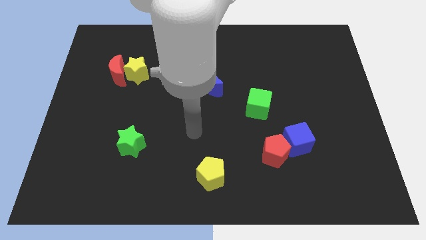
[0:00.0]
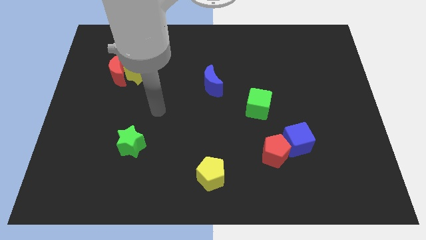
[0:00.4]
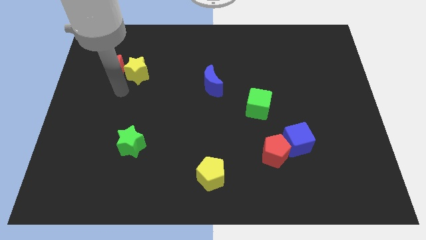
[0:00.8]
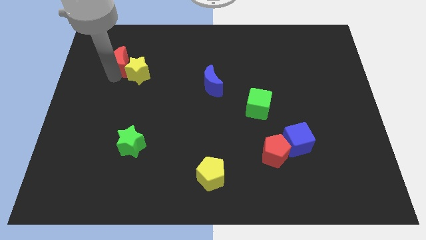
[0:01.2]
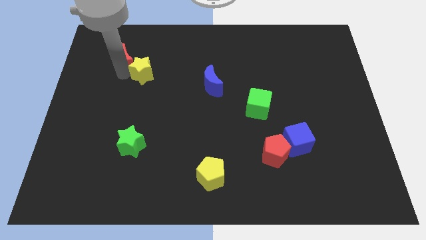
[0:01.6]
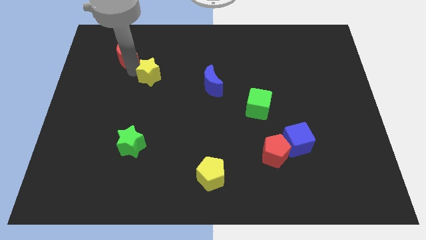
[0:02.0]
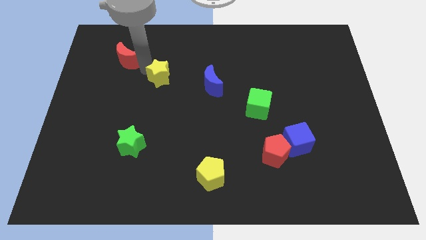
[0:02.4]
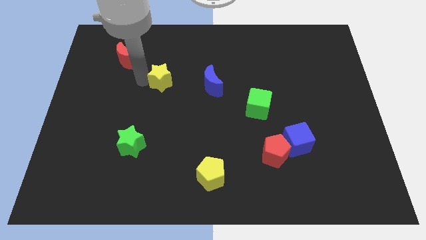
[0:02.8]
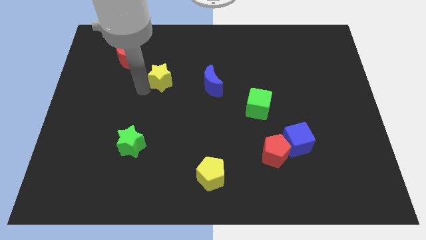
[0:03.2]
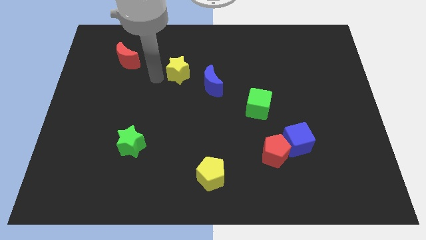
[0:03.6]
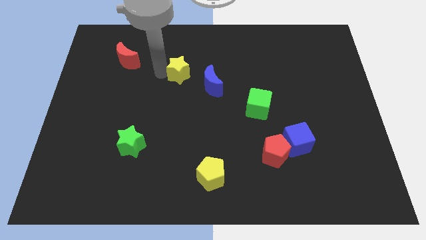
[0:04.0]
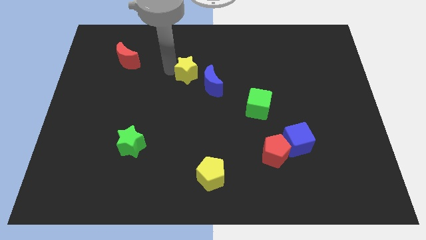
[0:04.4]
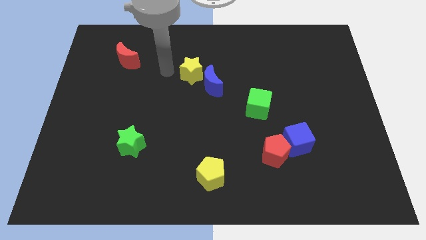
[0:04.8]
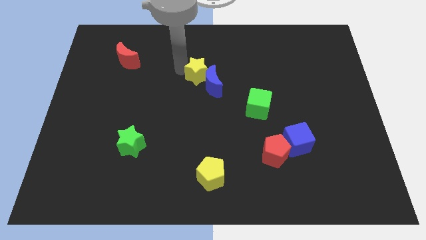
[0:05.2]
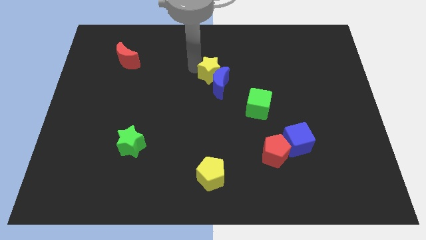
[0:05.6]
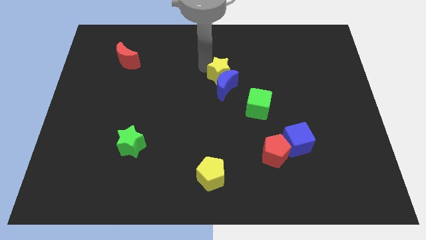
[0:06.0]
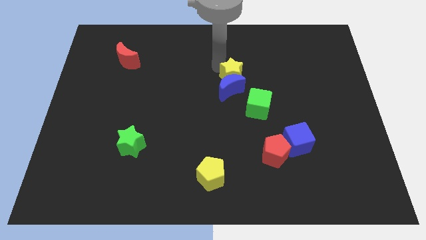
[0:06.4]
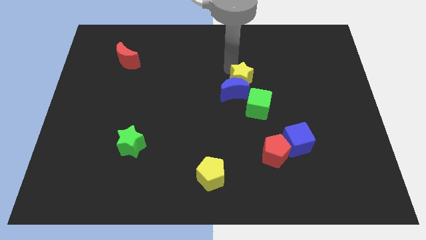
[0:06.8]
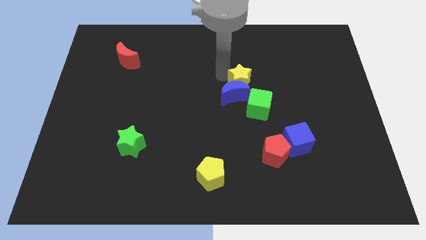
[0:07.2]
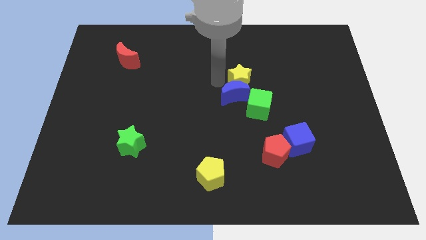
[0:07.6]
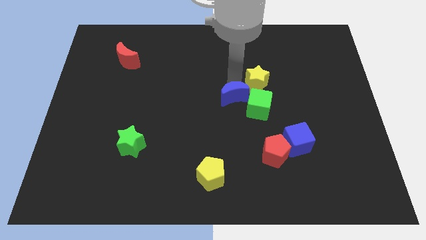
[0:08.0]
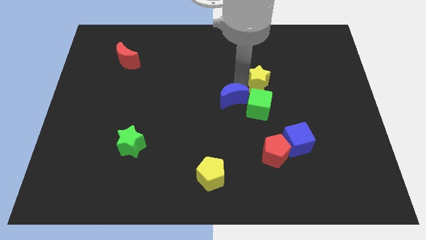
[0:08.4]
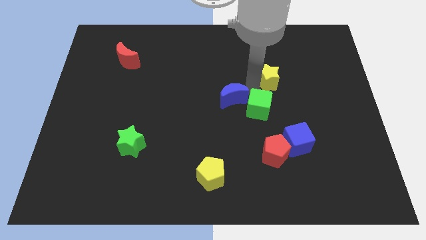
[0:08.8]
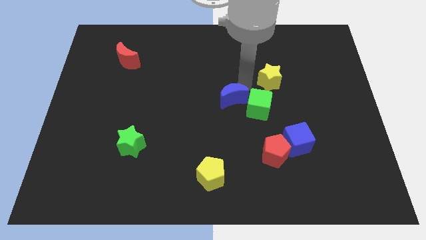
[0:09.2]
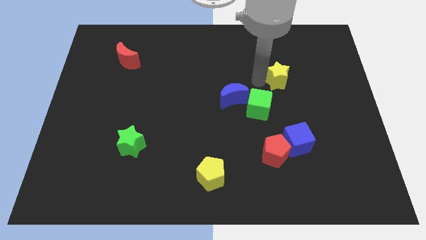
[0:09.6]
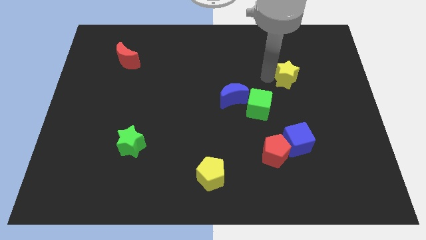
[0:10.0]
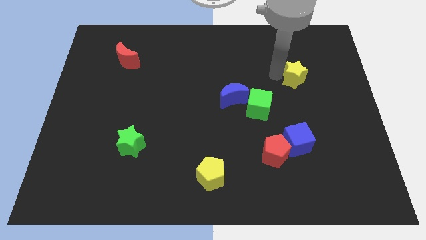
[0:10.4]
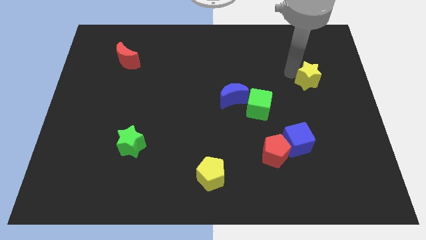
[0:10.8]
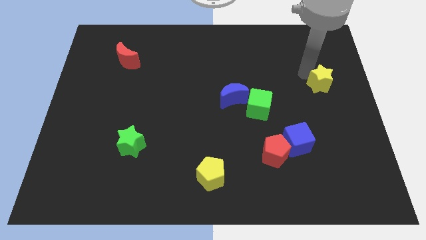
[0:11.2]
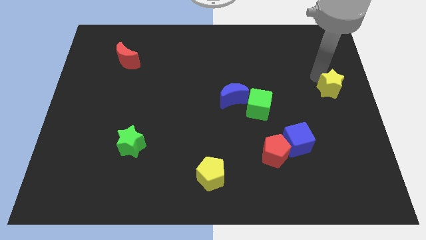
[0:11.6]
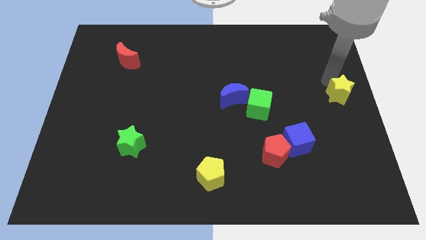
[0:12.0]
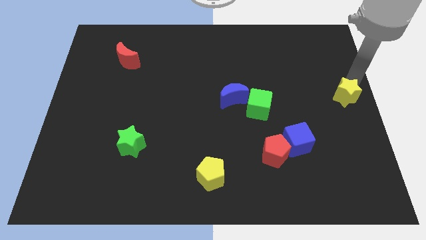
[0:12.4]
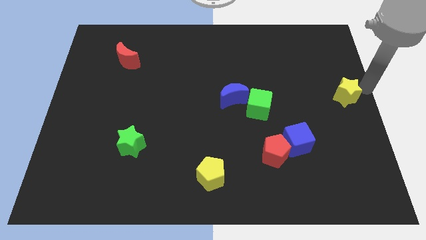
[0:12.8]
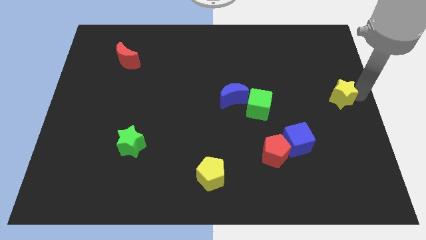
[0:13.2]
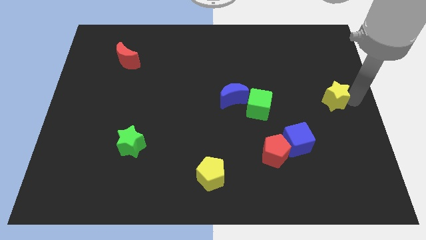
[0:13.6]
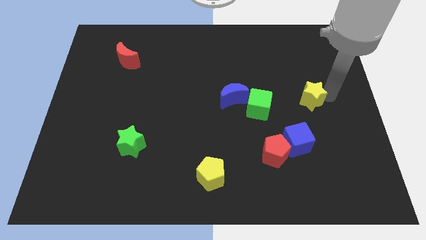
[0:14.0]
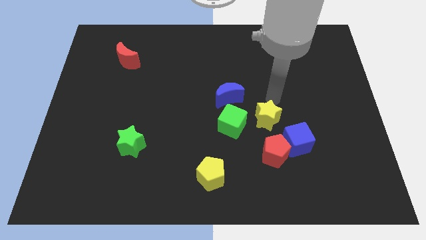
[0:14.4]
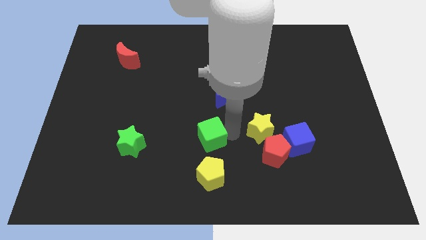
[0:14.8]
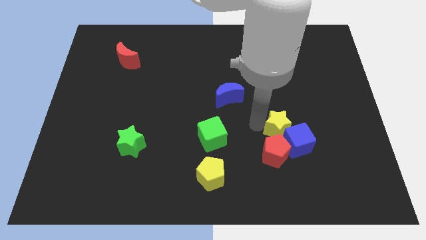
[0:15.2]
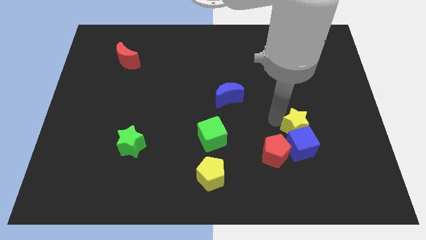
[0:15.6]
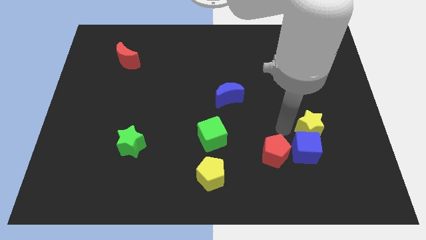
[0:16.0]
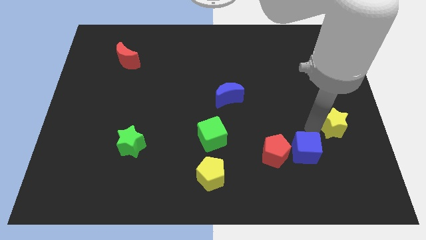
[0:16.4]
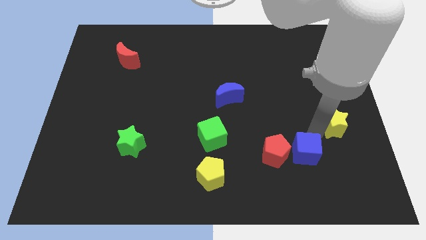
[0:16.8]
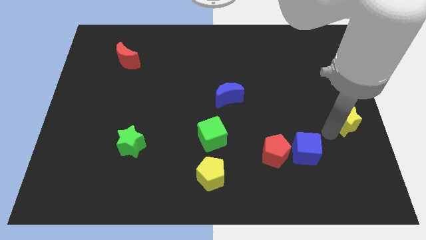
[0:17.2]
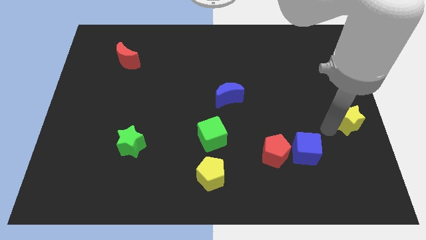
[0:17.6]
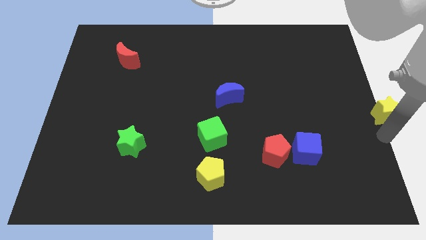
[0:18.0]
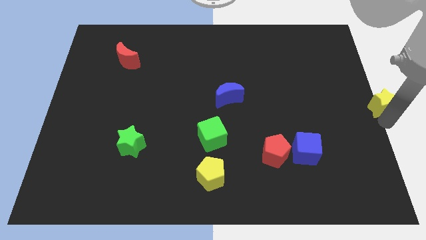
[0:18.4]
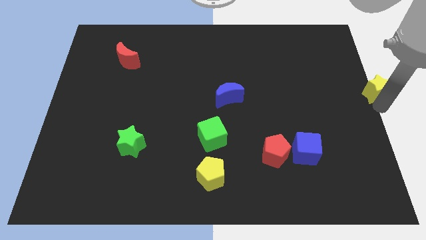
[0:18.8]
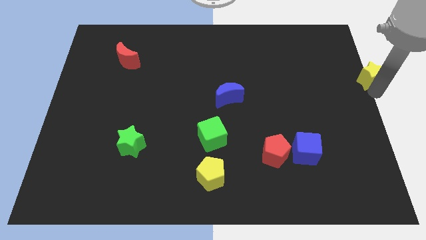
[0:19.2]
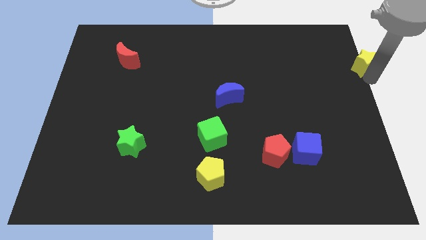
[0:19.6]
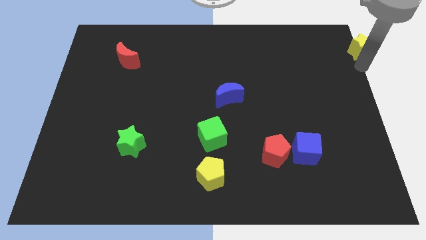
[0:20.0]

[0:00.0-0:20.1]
push the yellow star to the top right corner
